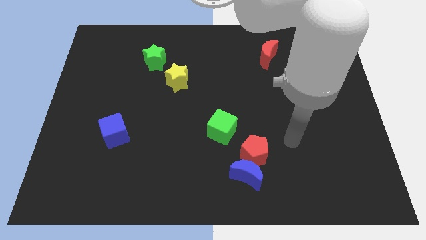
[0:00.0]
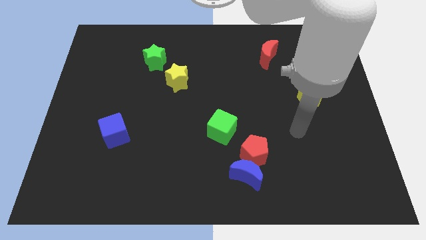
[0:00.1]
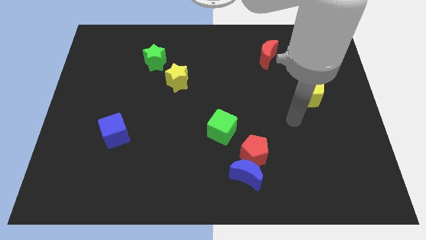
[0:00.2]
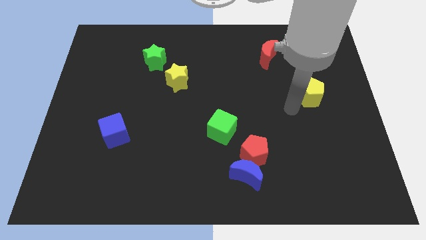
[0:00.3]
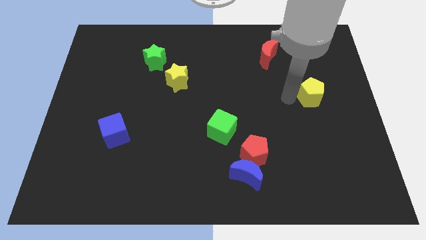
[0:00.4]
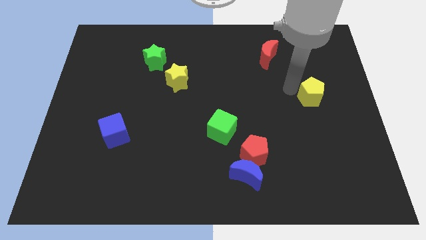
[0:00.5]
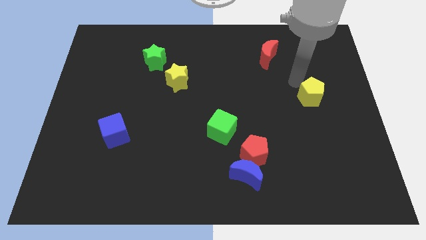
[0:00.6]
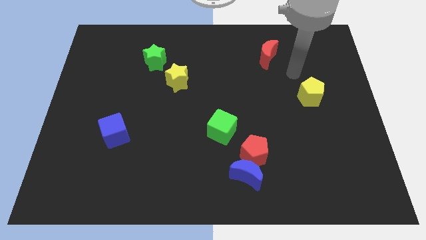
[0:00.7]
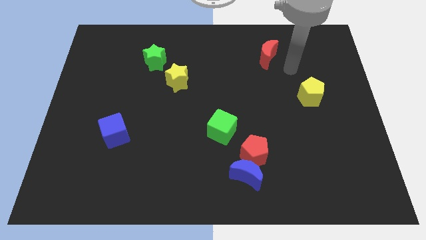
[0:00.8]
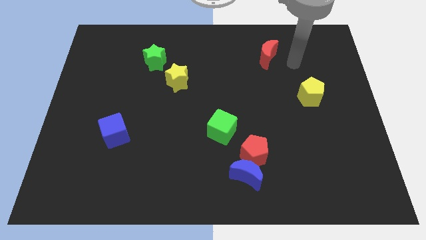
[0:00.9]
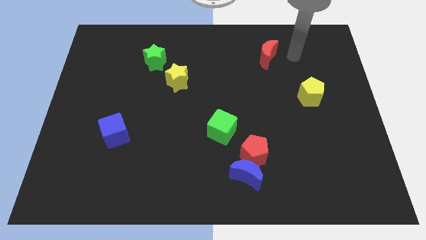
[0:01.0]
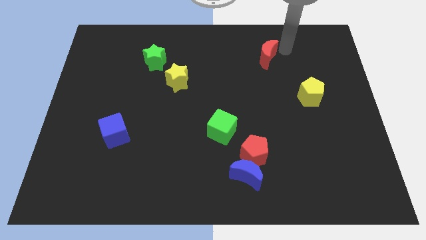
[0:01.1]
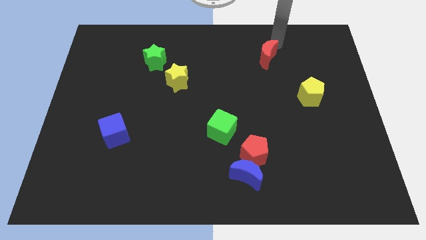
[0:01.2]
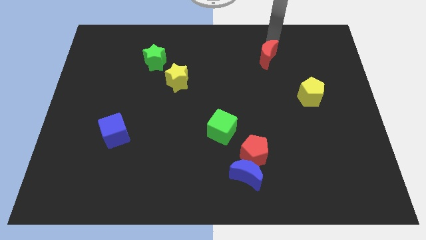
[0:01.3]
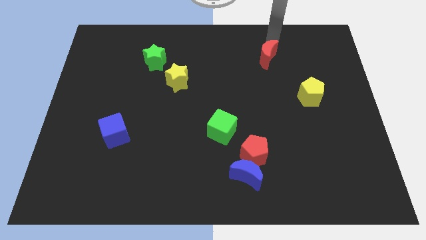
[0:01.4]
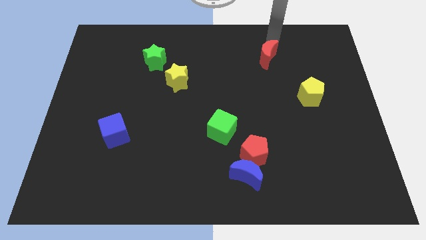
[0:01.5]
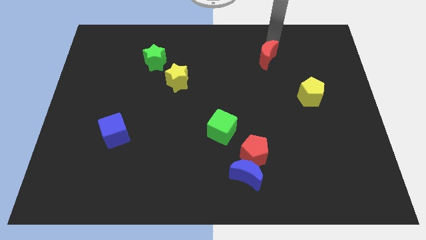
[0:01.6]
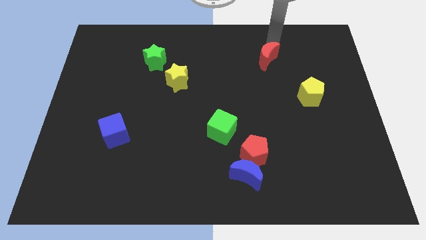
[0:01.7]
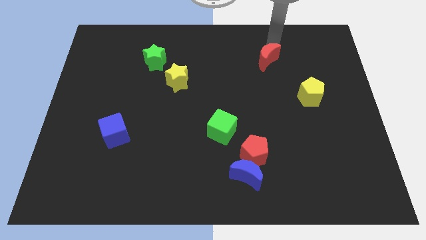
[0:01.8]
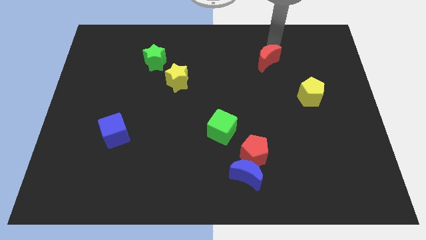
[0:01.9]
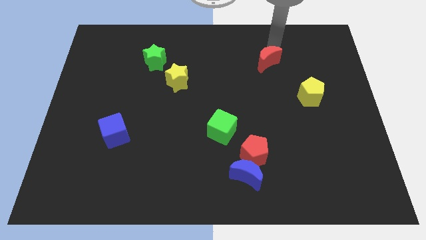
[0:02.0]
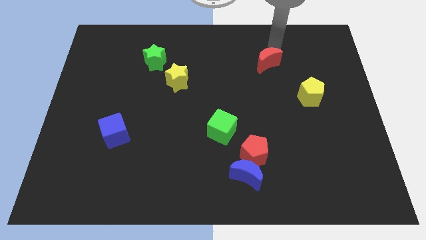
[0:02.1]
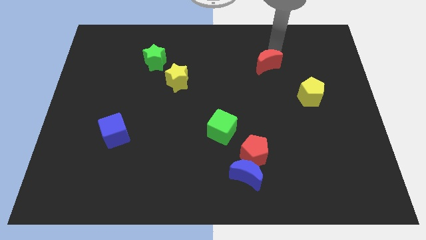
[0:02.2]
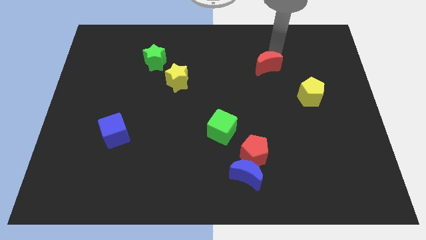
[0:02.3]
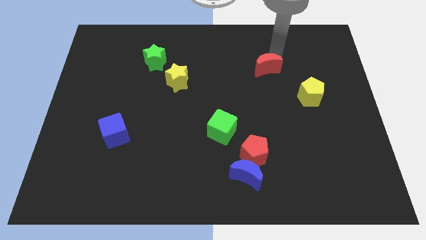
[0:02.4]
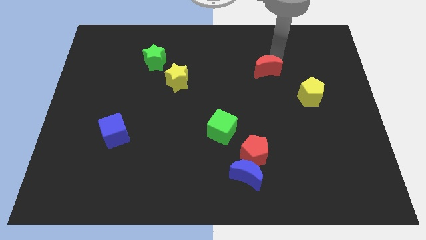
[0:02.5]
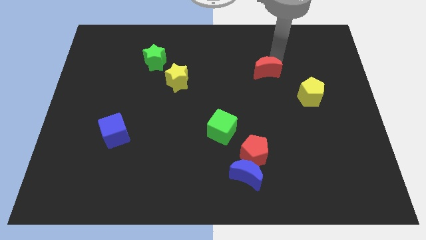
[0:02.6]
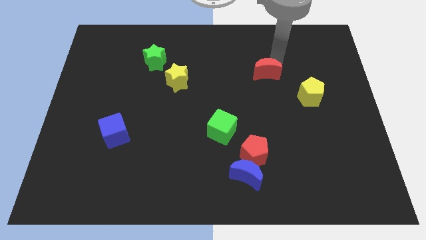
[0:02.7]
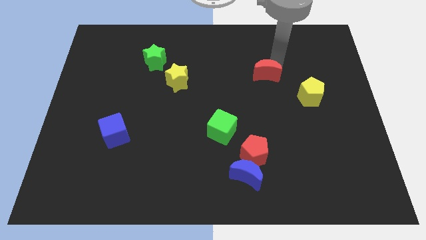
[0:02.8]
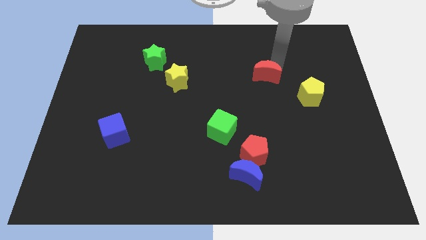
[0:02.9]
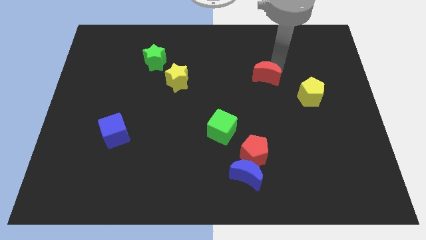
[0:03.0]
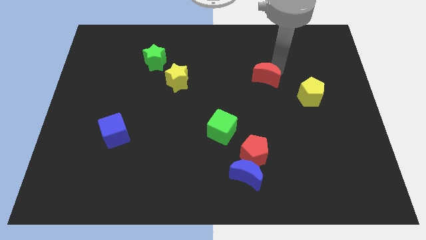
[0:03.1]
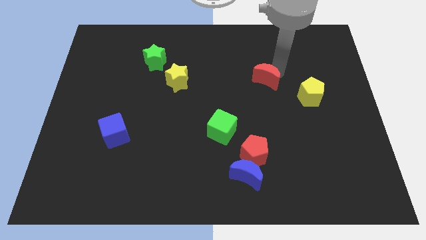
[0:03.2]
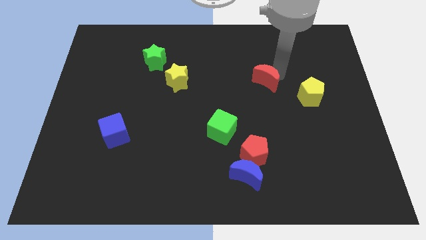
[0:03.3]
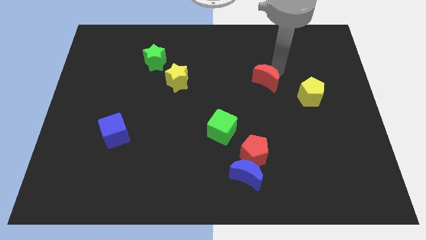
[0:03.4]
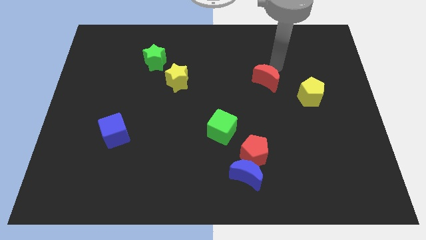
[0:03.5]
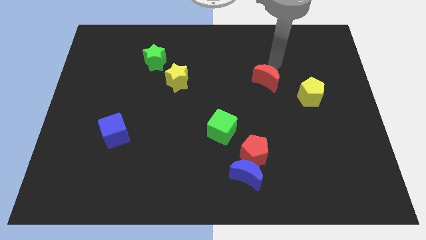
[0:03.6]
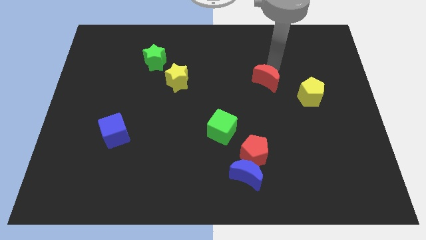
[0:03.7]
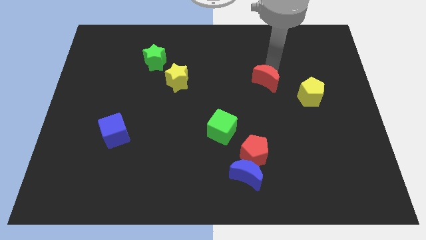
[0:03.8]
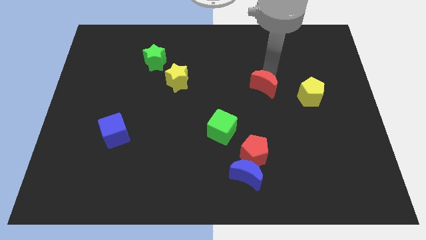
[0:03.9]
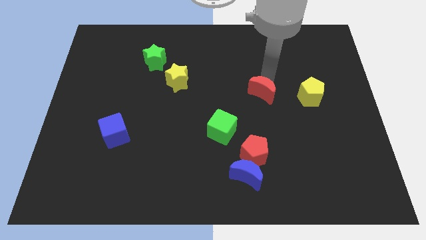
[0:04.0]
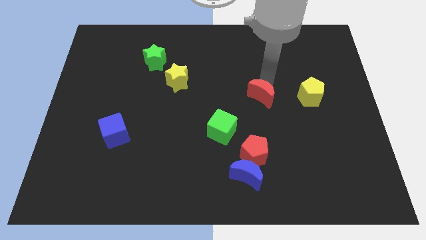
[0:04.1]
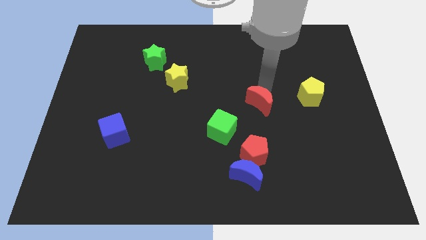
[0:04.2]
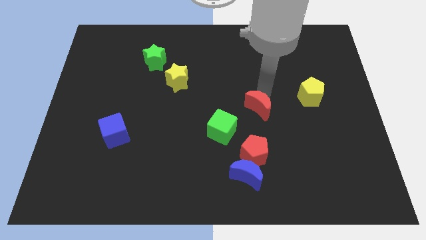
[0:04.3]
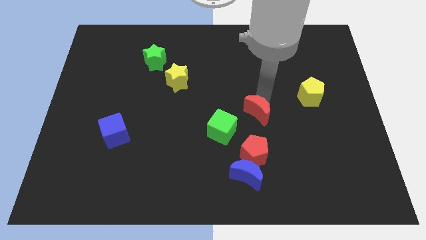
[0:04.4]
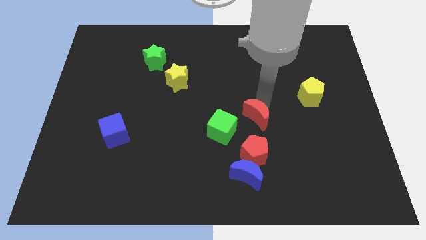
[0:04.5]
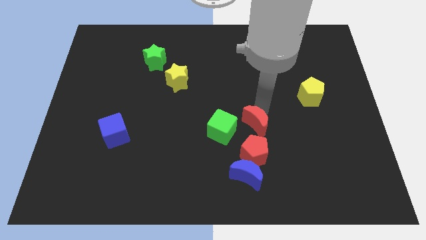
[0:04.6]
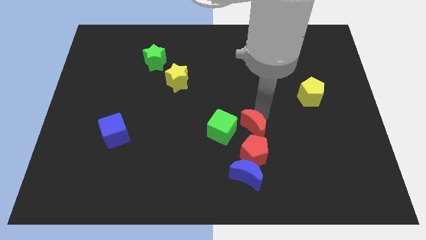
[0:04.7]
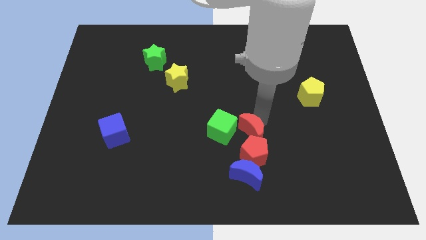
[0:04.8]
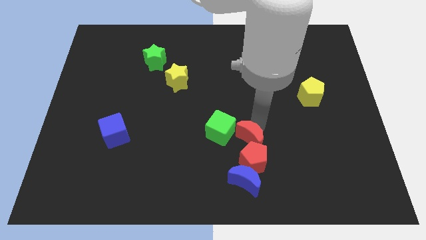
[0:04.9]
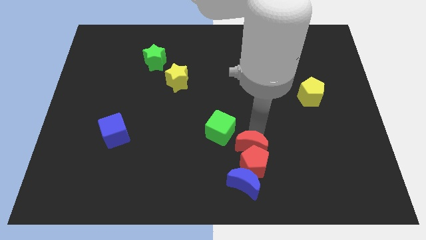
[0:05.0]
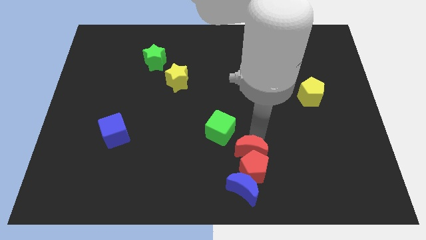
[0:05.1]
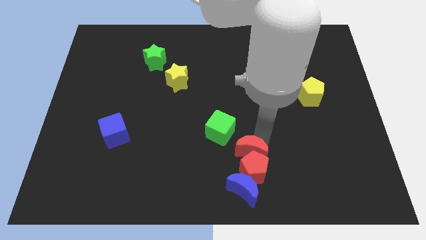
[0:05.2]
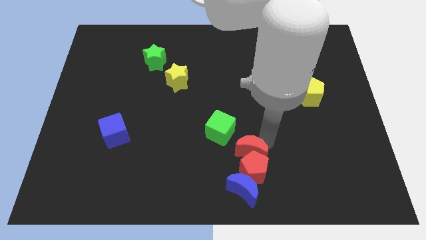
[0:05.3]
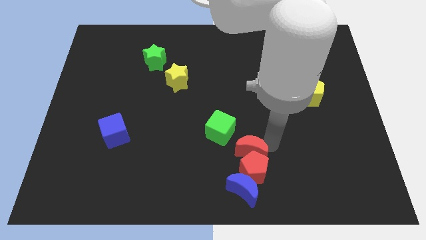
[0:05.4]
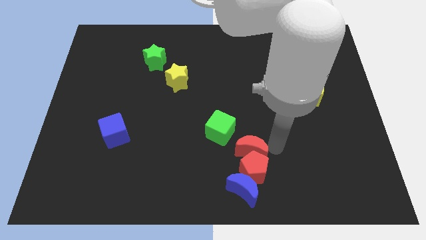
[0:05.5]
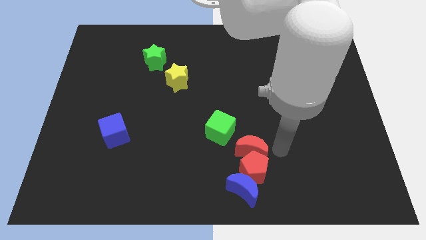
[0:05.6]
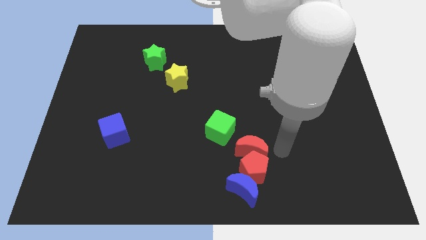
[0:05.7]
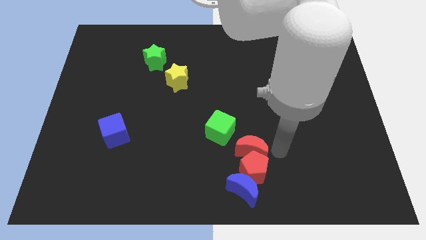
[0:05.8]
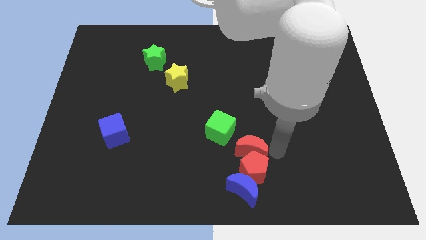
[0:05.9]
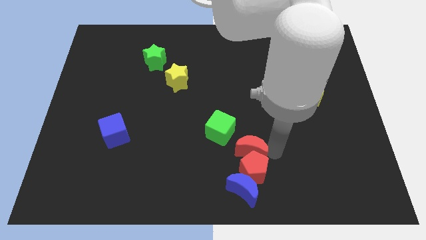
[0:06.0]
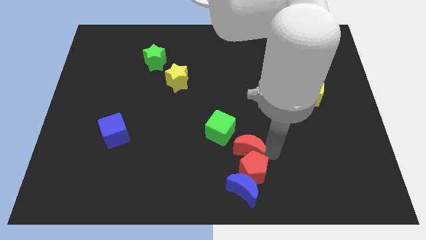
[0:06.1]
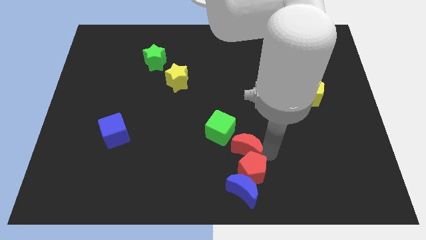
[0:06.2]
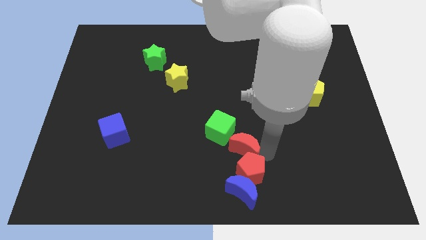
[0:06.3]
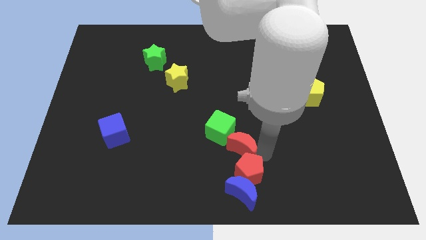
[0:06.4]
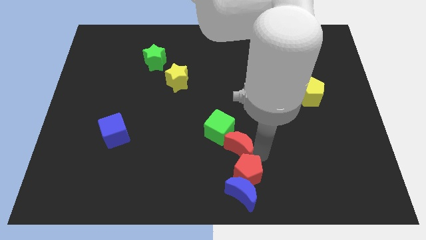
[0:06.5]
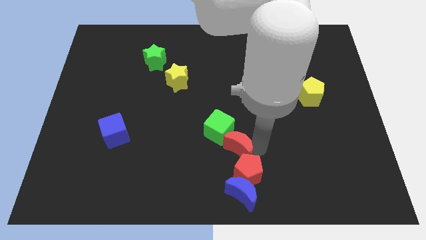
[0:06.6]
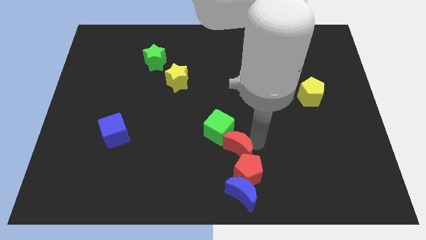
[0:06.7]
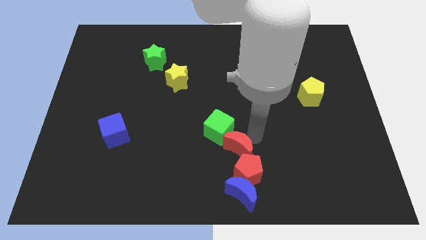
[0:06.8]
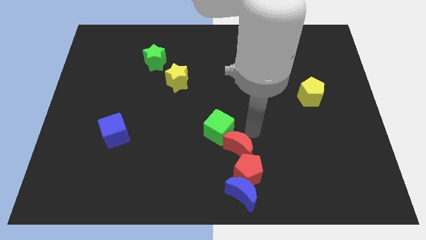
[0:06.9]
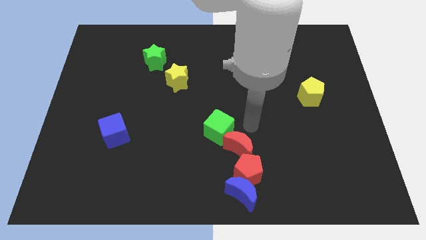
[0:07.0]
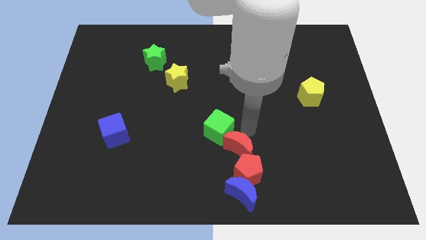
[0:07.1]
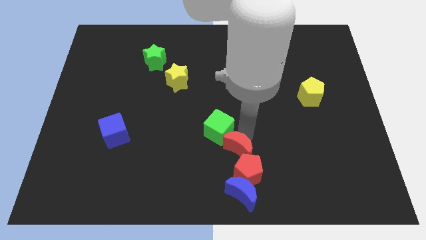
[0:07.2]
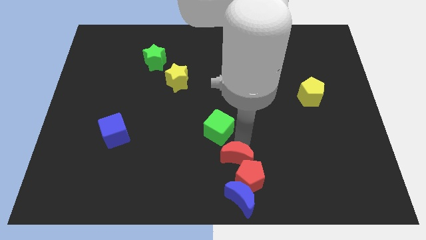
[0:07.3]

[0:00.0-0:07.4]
push the red moon to the bottom side
